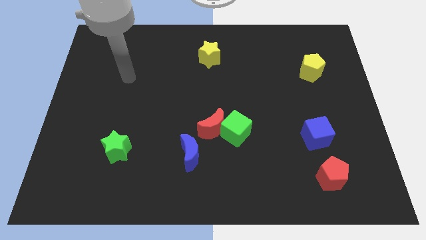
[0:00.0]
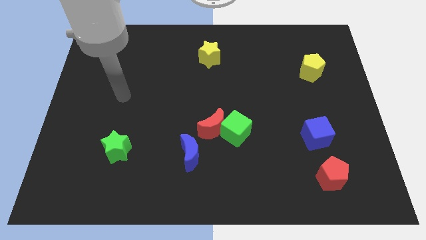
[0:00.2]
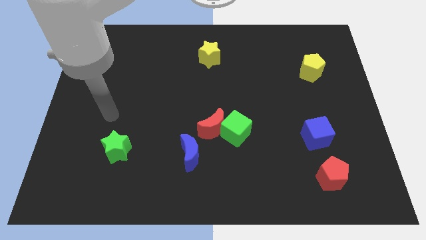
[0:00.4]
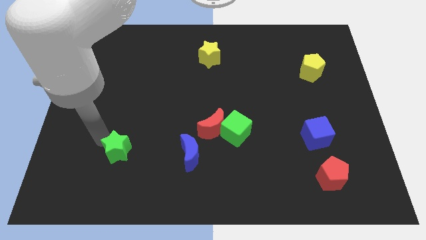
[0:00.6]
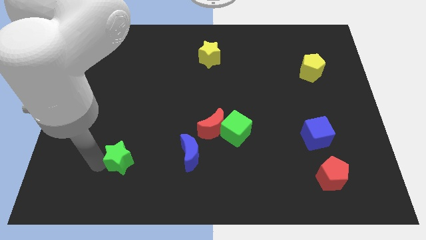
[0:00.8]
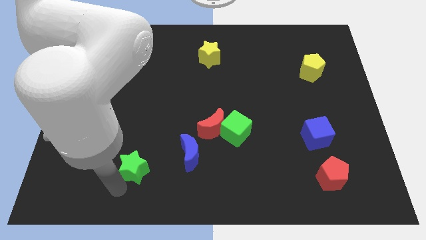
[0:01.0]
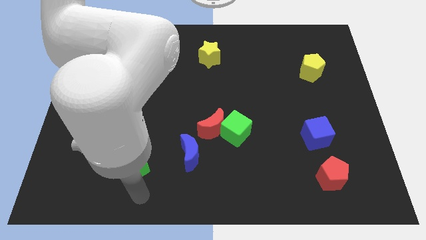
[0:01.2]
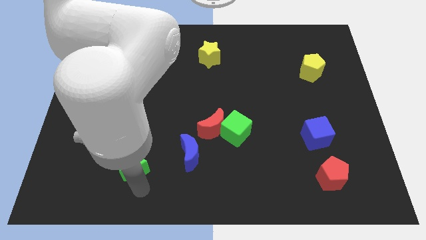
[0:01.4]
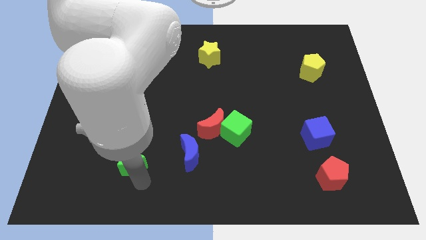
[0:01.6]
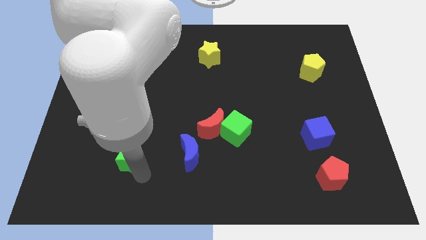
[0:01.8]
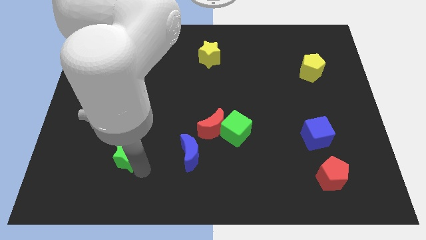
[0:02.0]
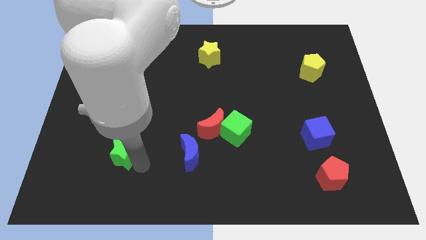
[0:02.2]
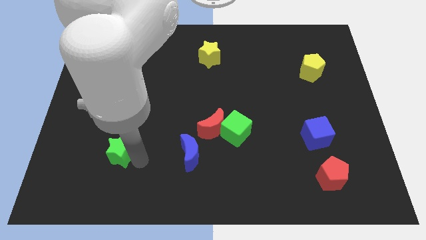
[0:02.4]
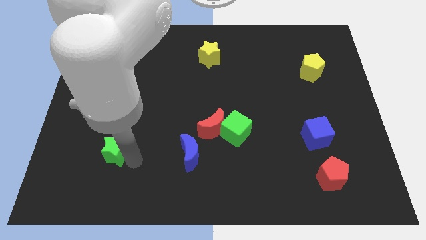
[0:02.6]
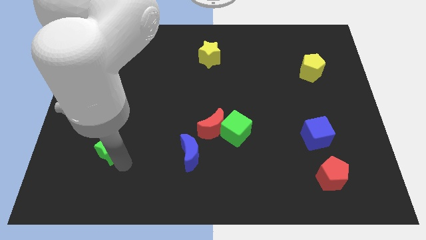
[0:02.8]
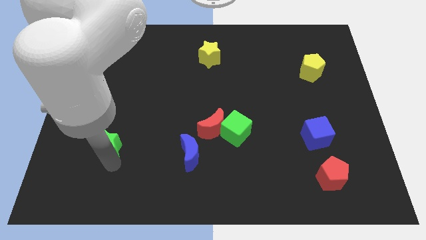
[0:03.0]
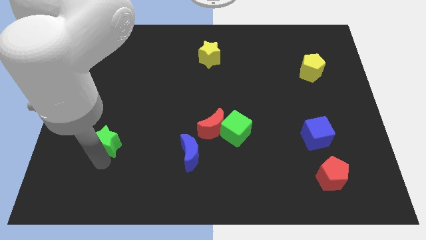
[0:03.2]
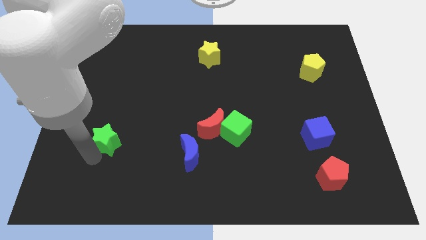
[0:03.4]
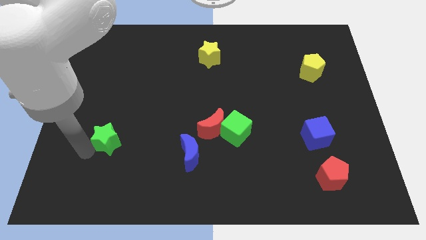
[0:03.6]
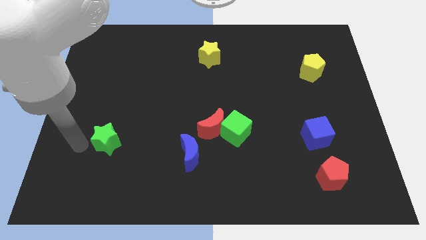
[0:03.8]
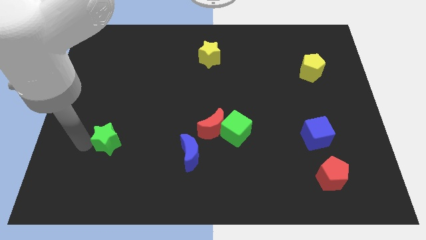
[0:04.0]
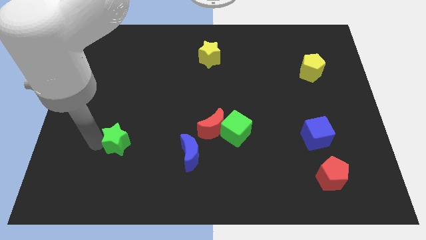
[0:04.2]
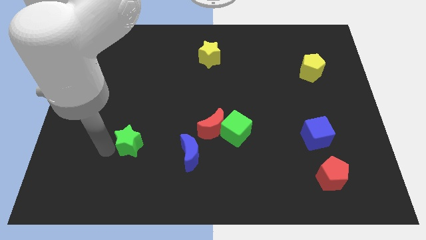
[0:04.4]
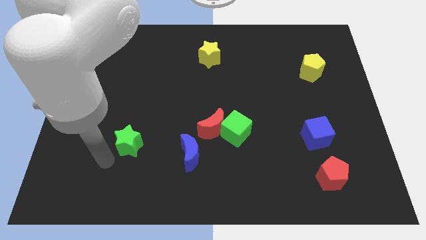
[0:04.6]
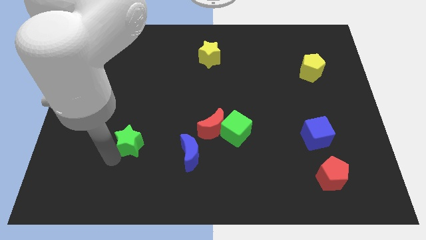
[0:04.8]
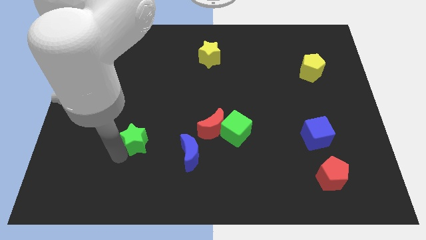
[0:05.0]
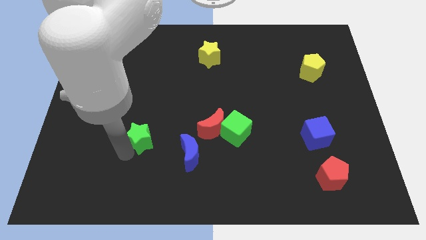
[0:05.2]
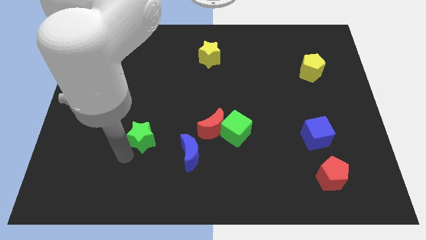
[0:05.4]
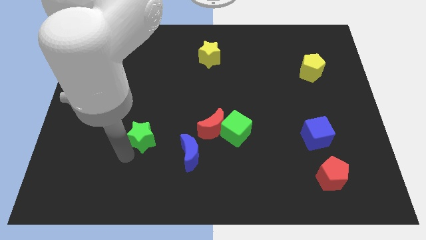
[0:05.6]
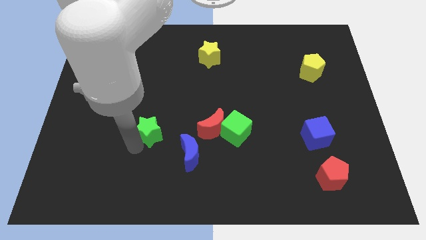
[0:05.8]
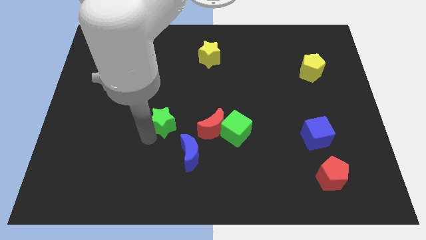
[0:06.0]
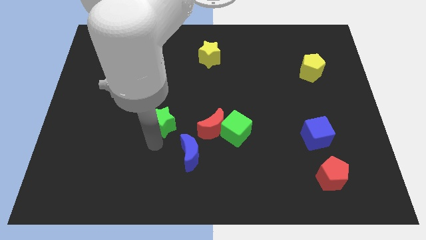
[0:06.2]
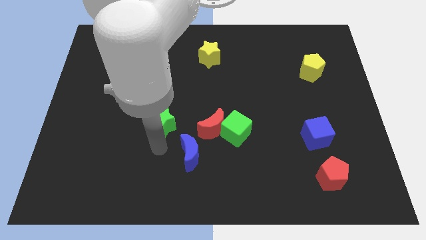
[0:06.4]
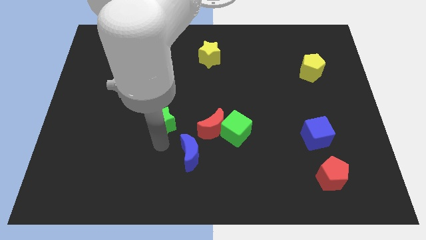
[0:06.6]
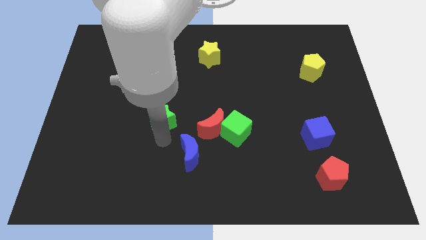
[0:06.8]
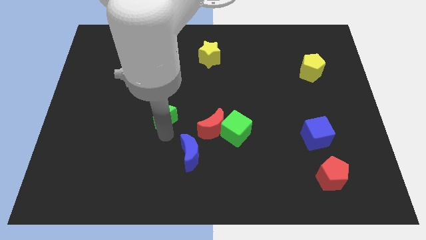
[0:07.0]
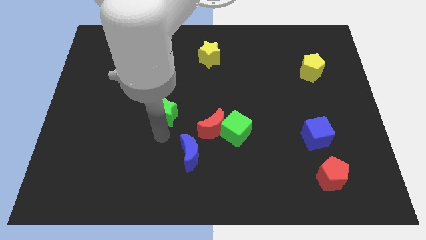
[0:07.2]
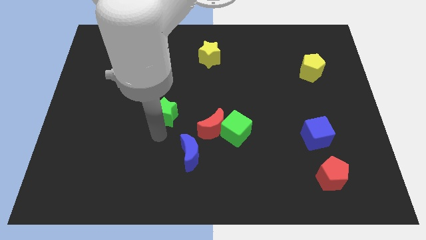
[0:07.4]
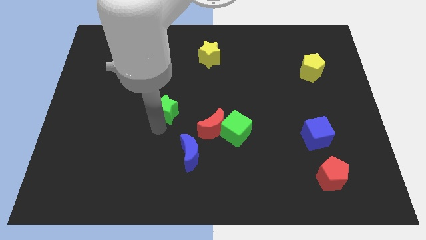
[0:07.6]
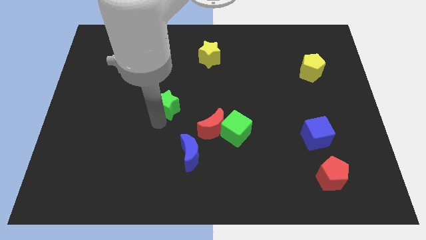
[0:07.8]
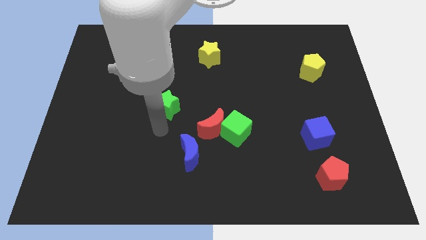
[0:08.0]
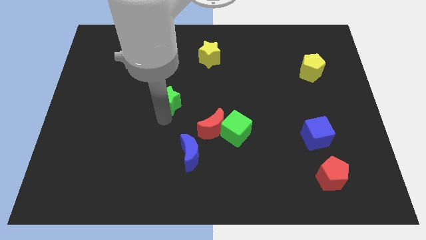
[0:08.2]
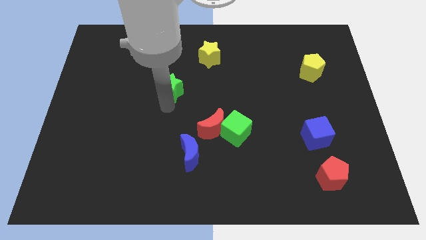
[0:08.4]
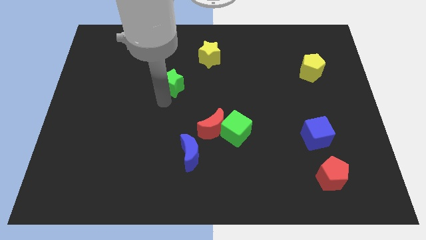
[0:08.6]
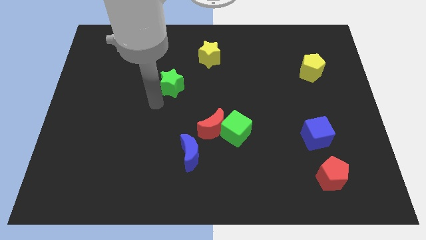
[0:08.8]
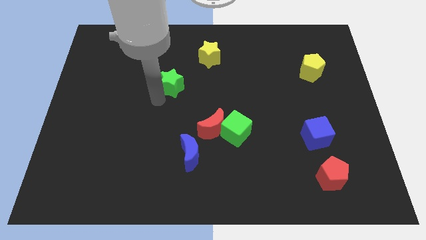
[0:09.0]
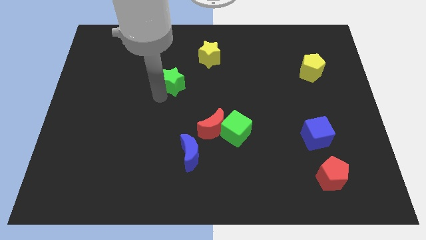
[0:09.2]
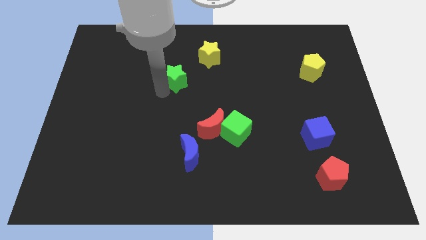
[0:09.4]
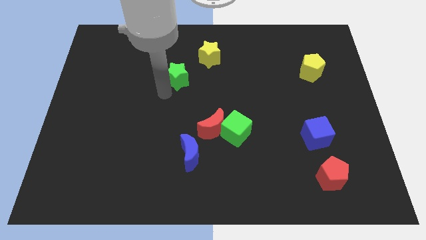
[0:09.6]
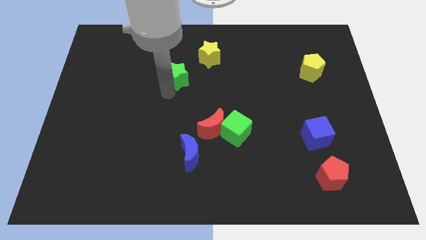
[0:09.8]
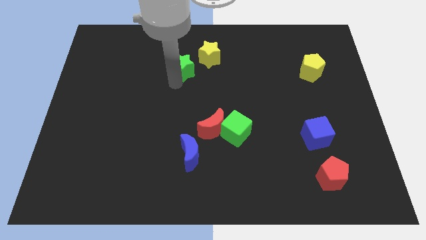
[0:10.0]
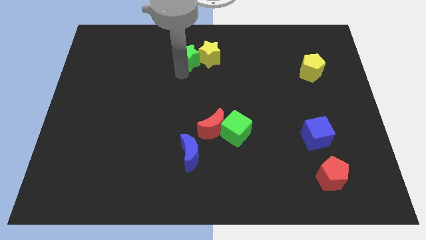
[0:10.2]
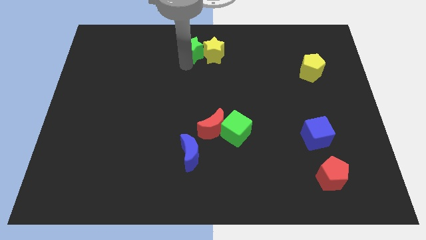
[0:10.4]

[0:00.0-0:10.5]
push the green star to the top side
